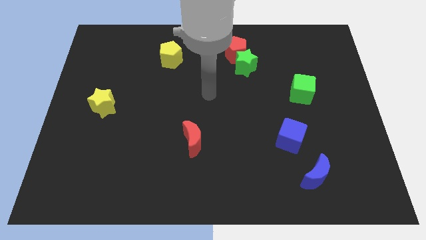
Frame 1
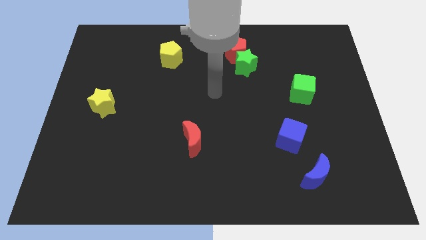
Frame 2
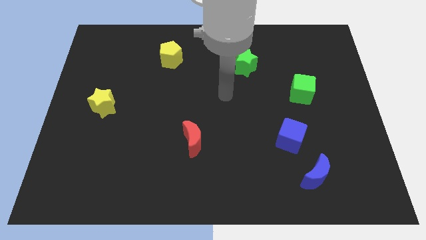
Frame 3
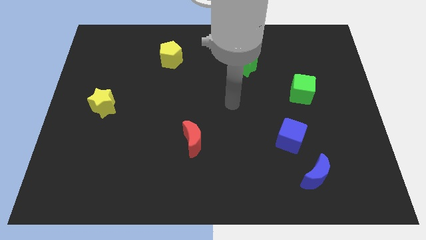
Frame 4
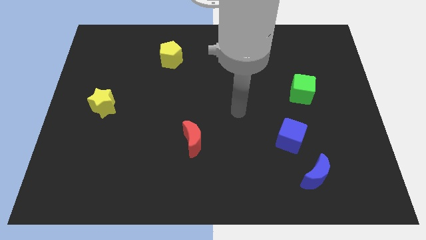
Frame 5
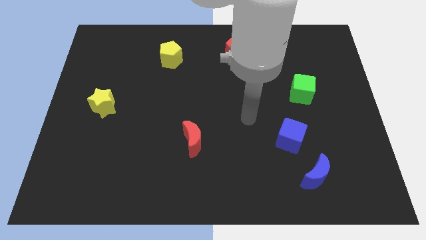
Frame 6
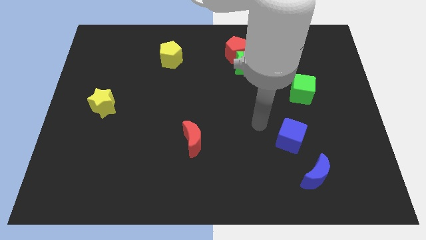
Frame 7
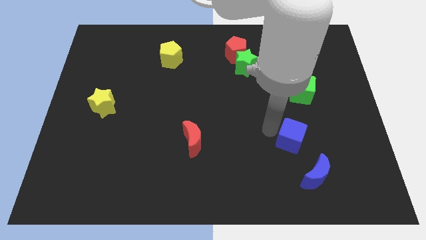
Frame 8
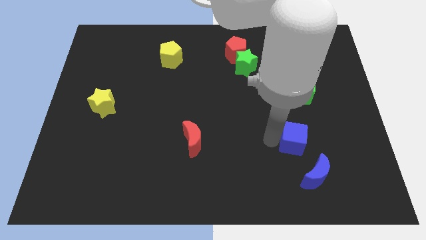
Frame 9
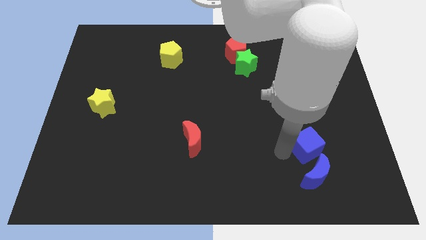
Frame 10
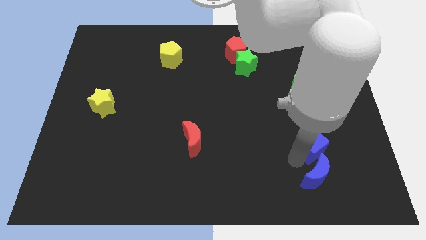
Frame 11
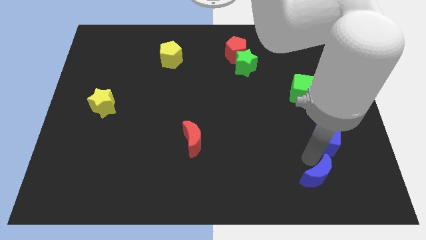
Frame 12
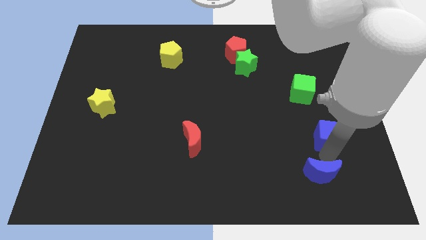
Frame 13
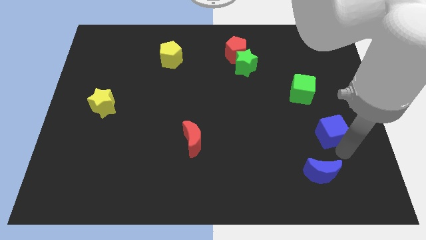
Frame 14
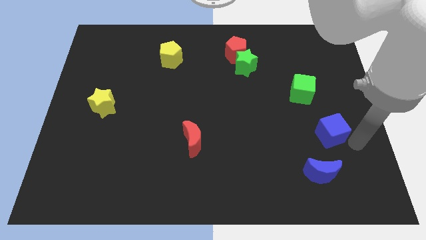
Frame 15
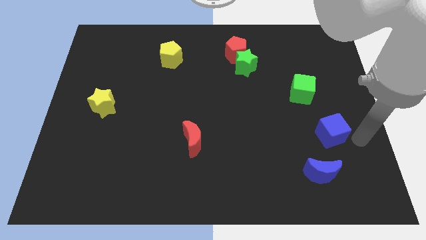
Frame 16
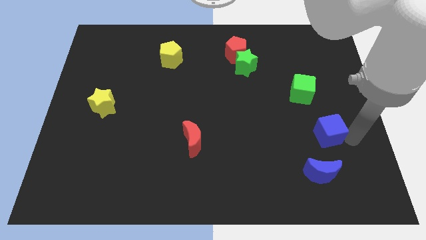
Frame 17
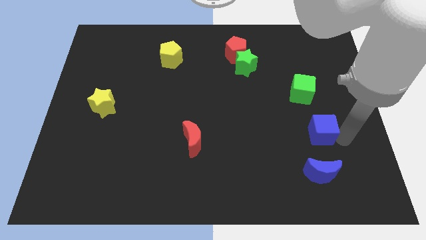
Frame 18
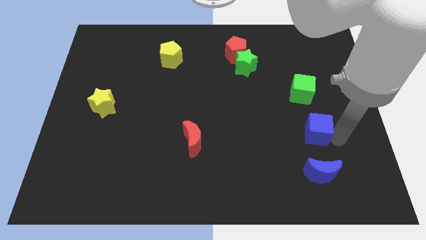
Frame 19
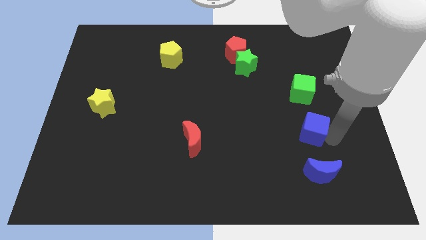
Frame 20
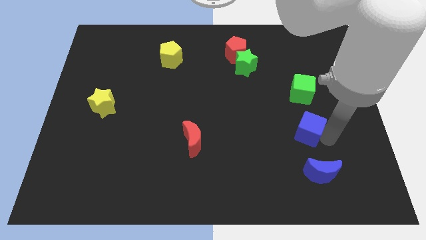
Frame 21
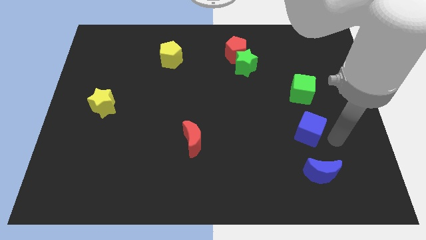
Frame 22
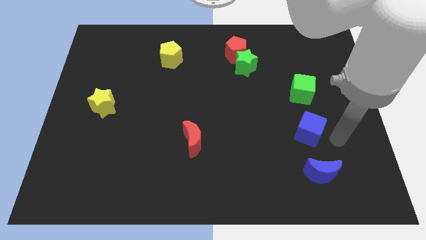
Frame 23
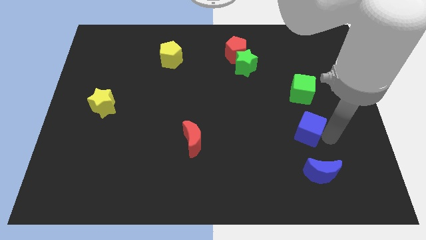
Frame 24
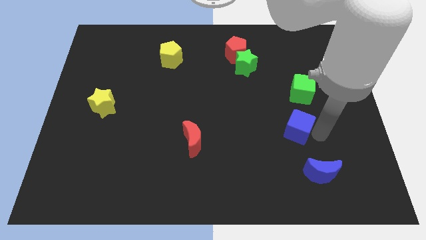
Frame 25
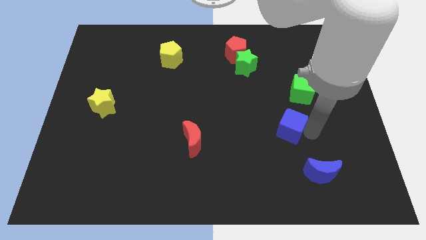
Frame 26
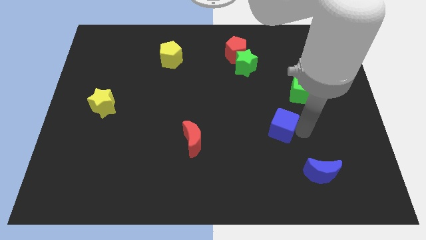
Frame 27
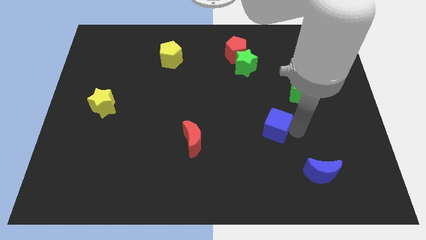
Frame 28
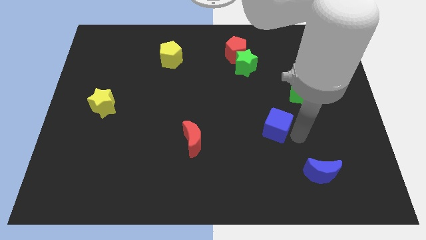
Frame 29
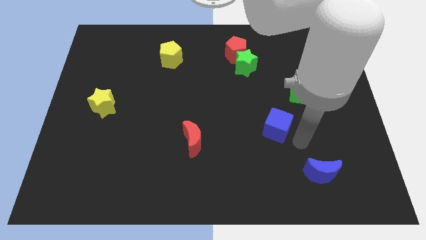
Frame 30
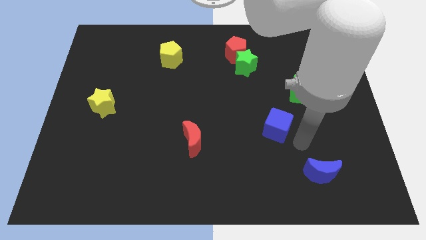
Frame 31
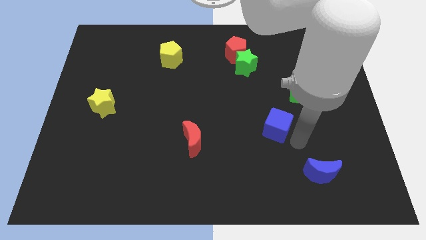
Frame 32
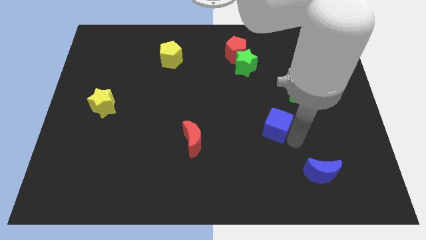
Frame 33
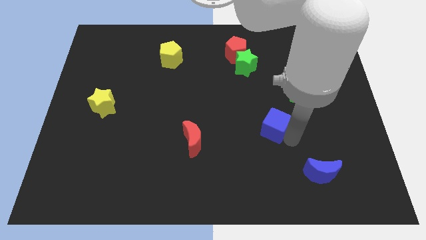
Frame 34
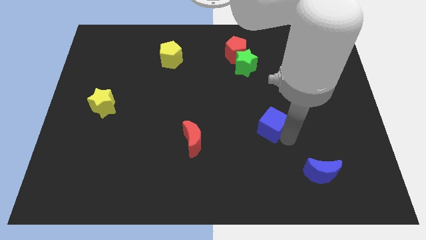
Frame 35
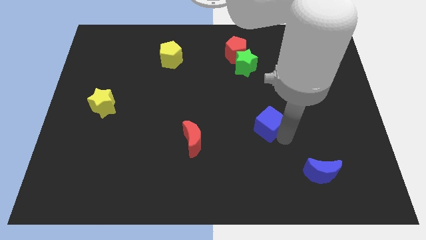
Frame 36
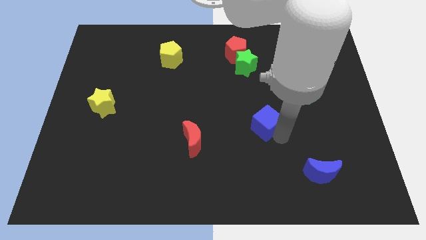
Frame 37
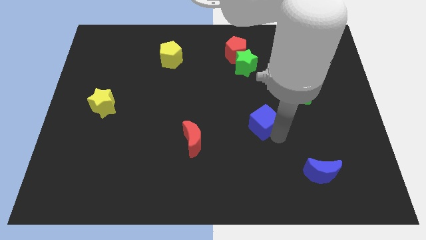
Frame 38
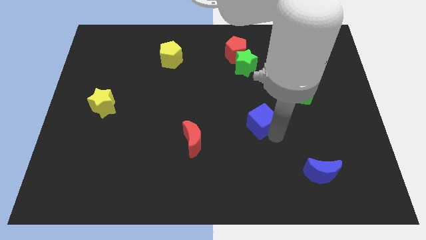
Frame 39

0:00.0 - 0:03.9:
slightly move the blue cube up and to the left diagonally

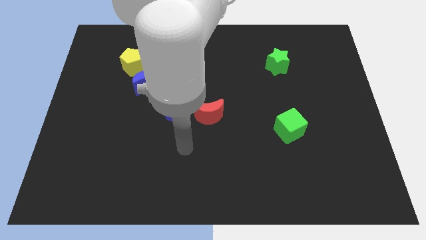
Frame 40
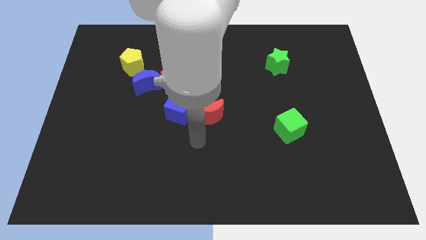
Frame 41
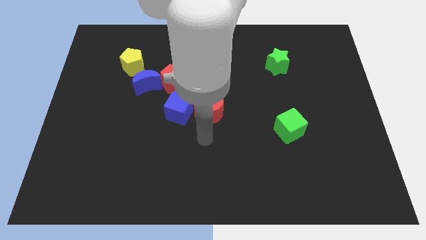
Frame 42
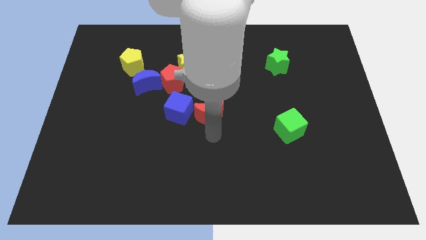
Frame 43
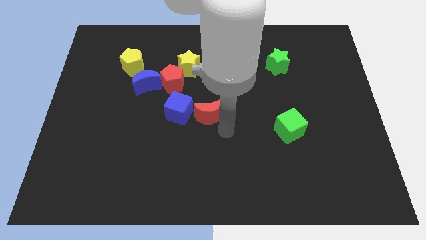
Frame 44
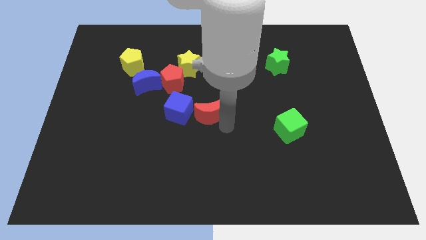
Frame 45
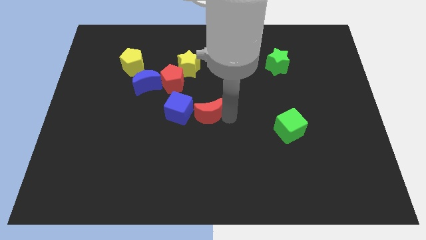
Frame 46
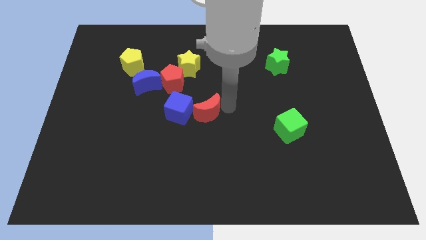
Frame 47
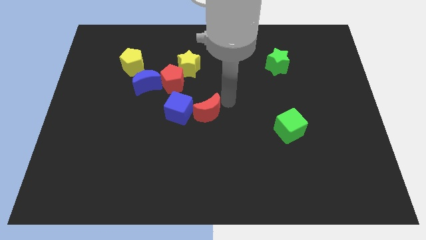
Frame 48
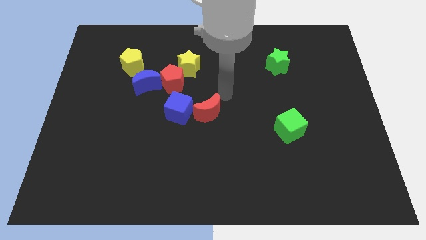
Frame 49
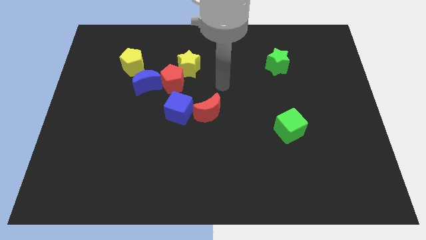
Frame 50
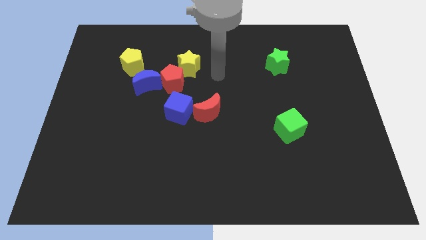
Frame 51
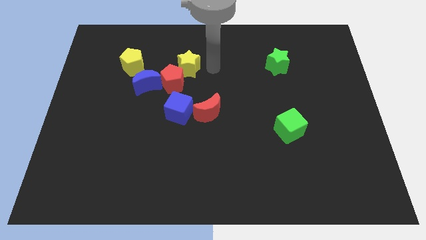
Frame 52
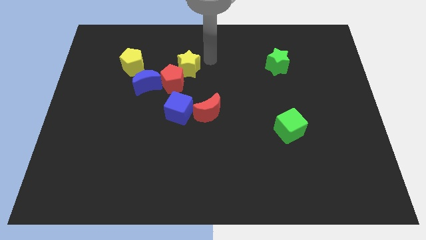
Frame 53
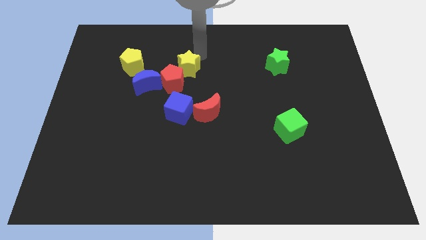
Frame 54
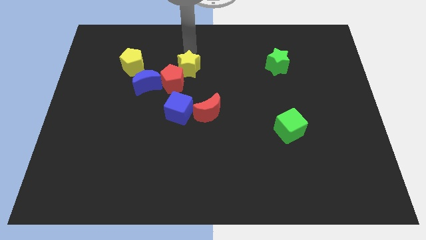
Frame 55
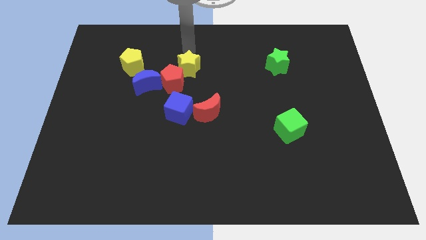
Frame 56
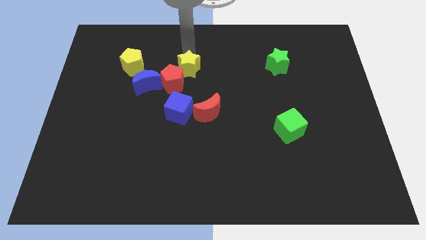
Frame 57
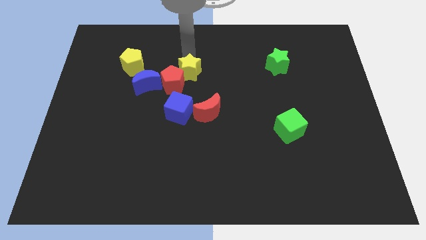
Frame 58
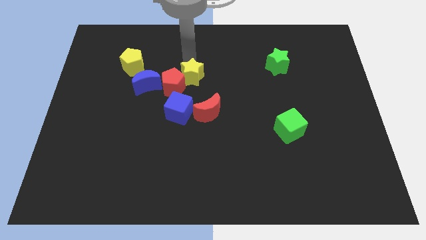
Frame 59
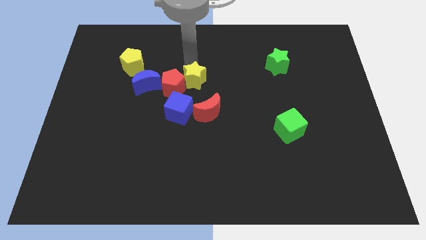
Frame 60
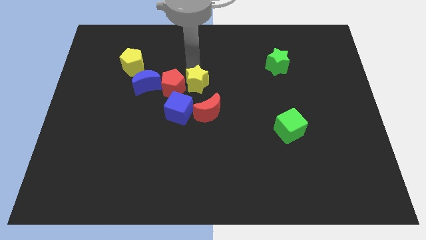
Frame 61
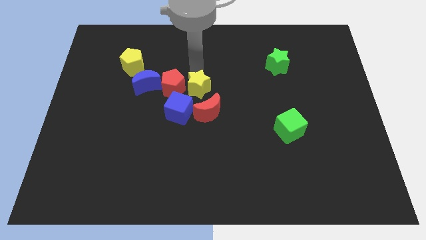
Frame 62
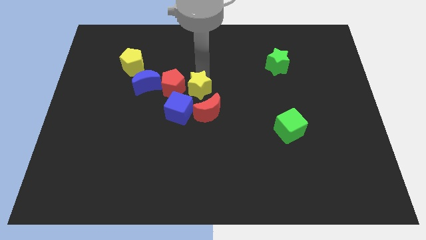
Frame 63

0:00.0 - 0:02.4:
slightly move the yellow star downwards

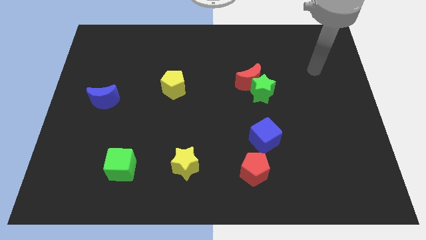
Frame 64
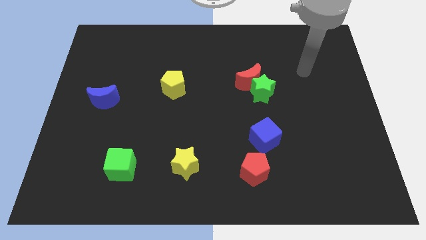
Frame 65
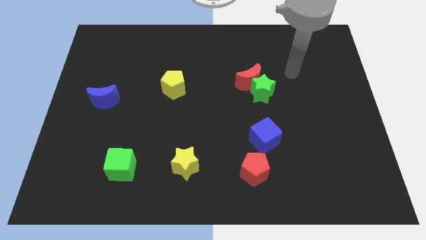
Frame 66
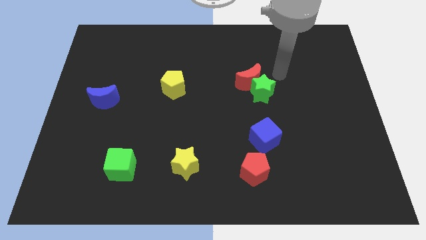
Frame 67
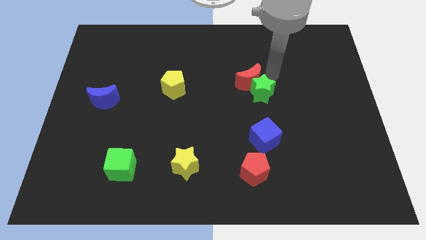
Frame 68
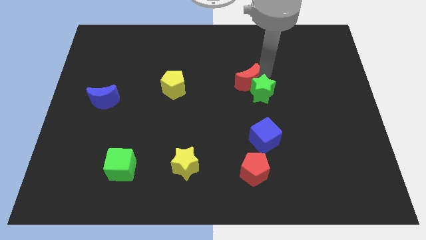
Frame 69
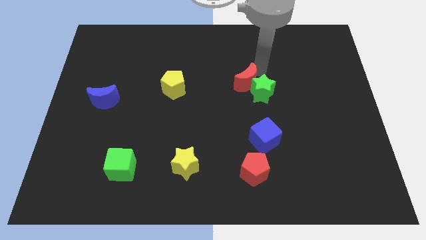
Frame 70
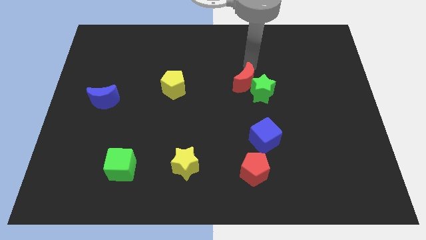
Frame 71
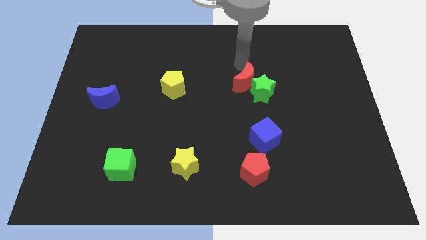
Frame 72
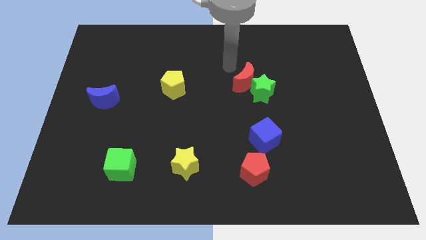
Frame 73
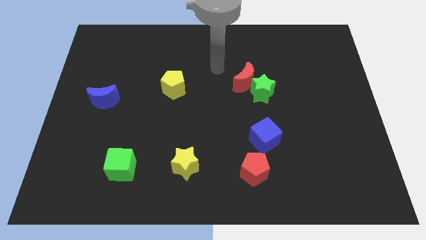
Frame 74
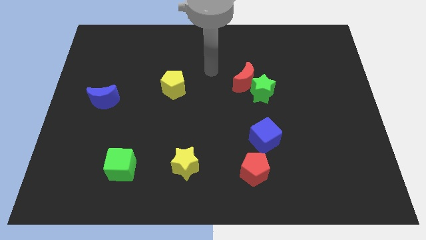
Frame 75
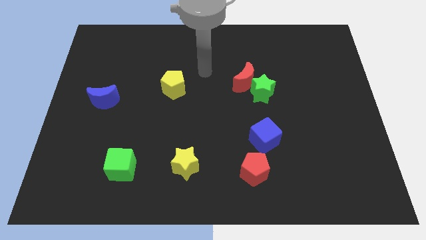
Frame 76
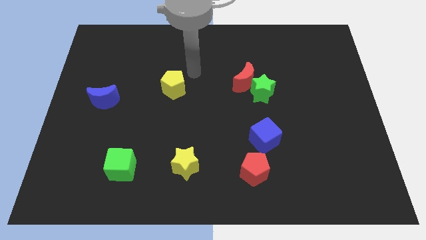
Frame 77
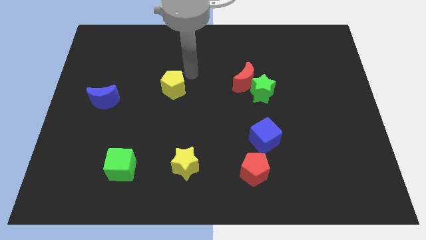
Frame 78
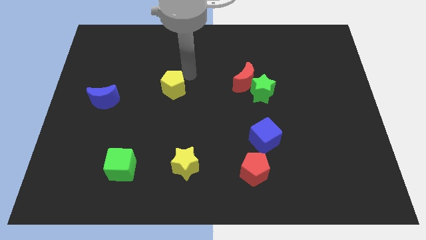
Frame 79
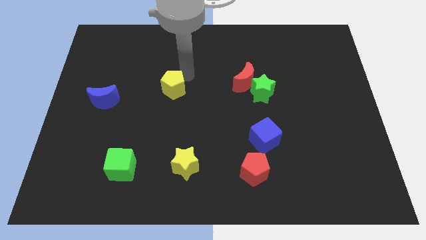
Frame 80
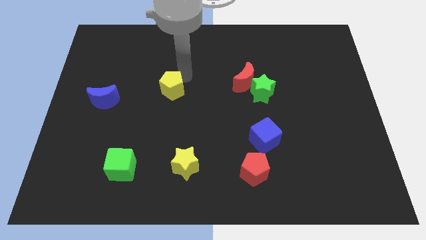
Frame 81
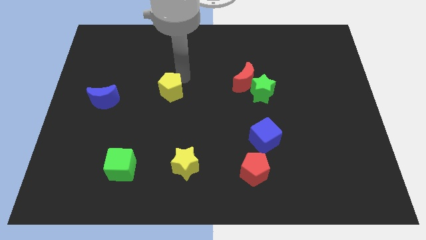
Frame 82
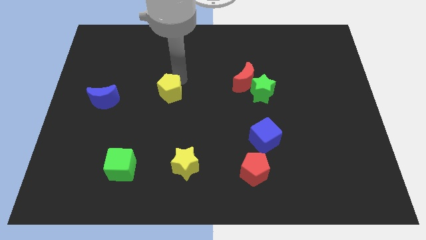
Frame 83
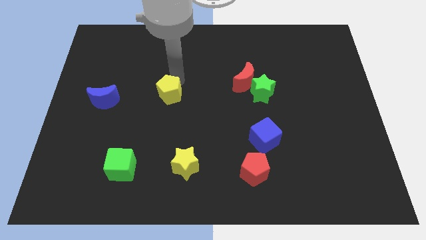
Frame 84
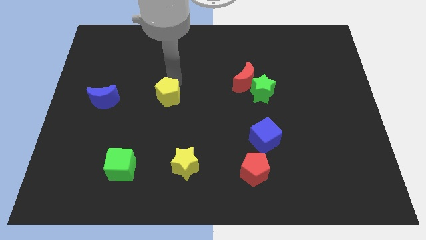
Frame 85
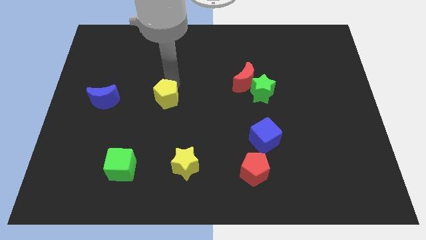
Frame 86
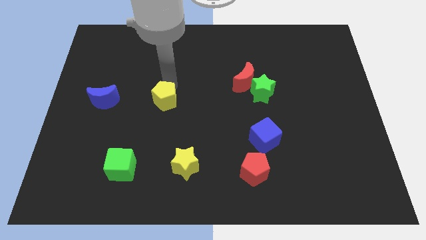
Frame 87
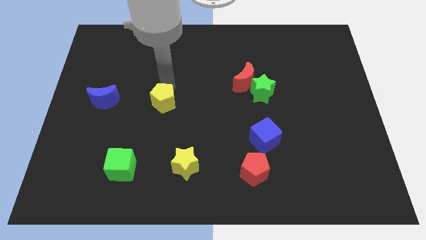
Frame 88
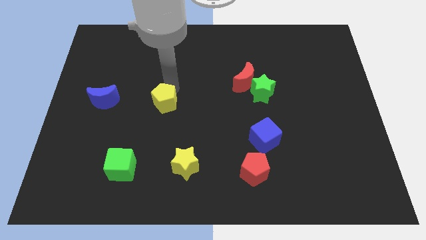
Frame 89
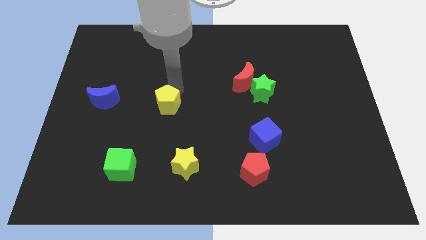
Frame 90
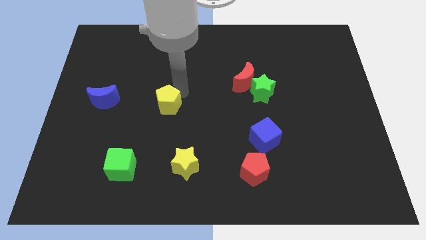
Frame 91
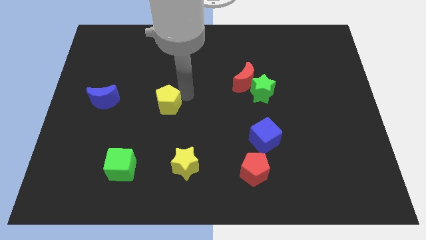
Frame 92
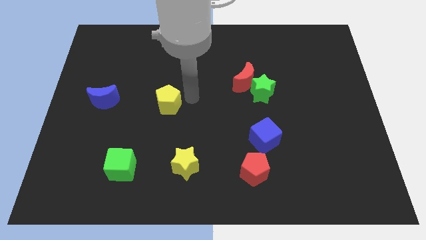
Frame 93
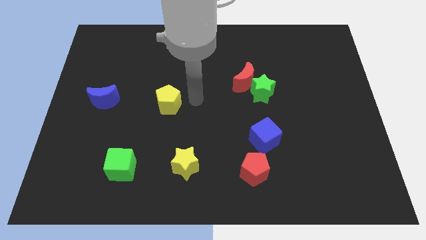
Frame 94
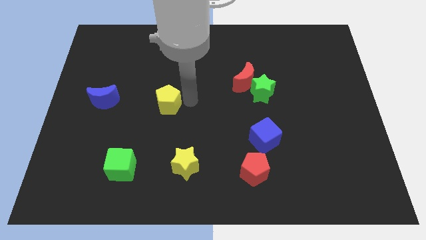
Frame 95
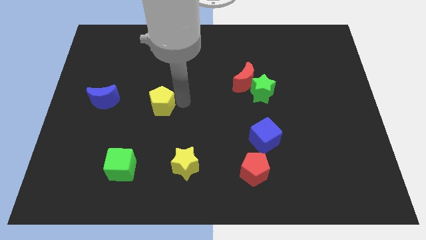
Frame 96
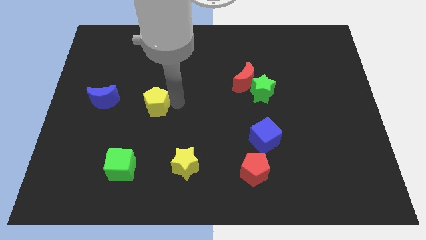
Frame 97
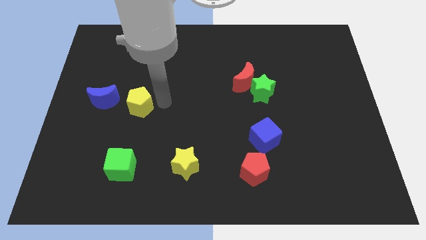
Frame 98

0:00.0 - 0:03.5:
slightly push the yellow pentagon diagonally down and left
